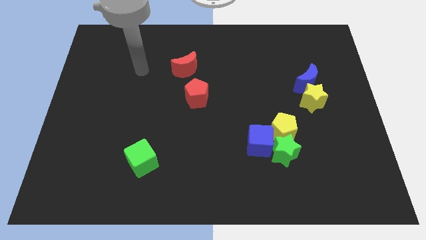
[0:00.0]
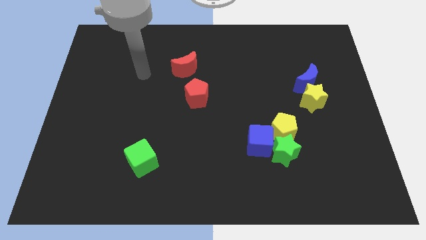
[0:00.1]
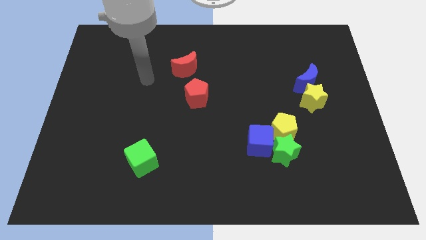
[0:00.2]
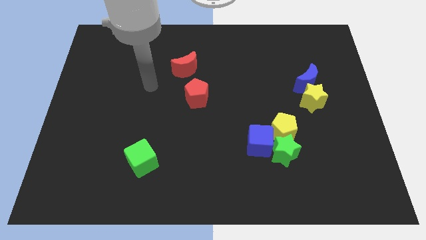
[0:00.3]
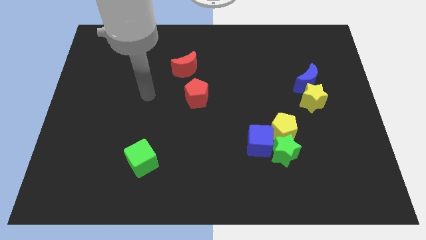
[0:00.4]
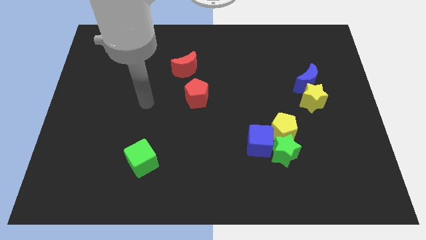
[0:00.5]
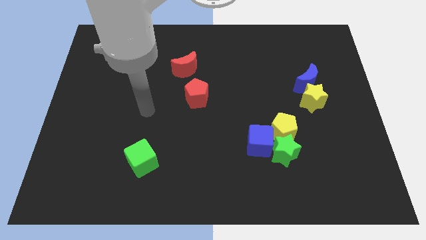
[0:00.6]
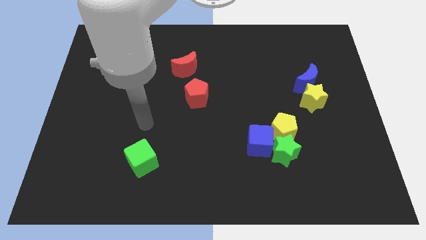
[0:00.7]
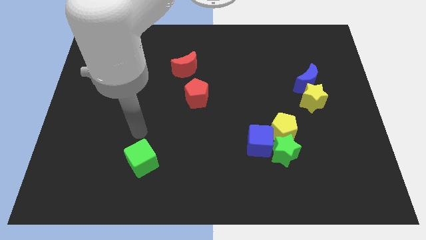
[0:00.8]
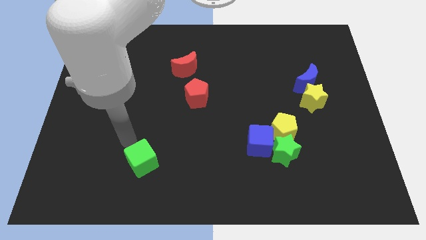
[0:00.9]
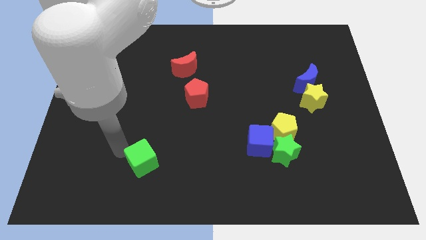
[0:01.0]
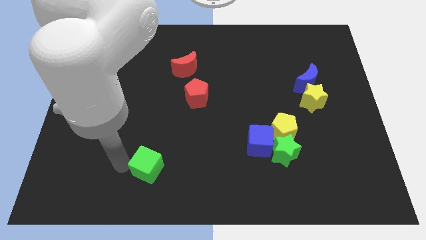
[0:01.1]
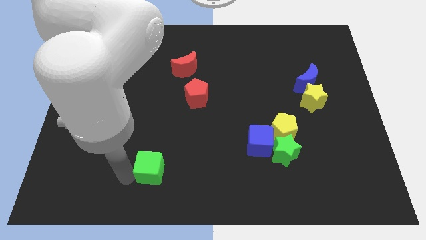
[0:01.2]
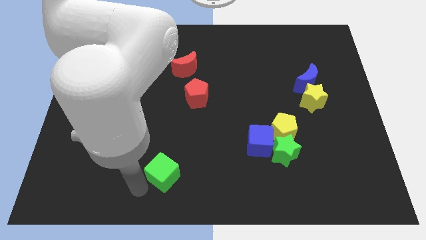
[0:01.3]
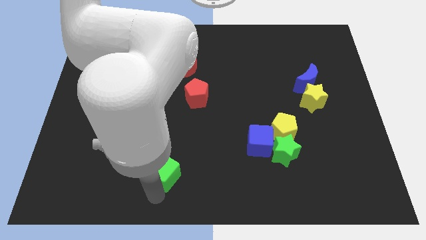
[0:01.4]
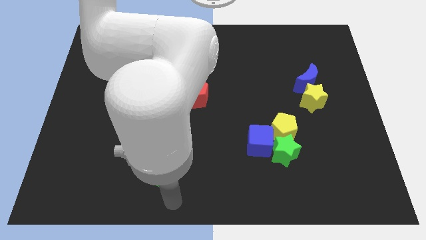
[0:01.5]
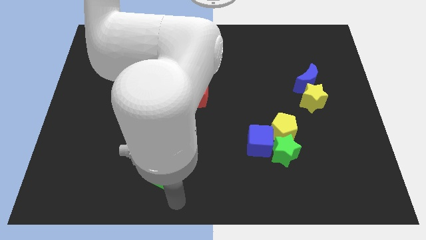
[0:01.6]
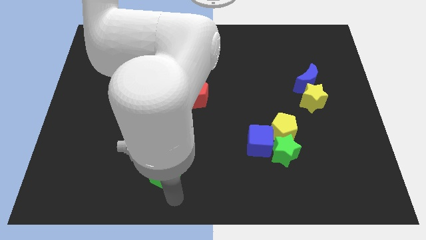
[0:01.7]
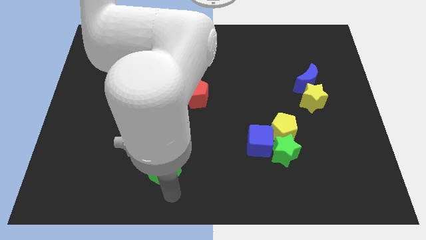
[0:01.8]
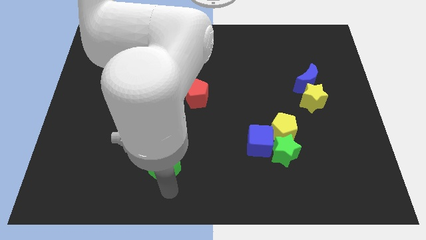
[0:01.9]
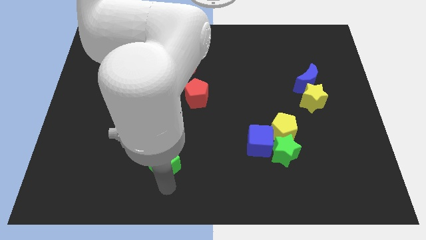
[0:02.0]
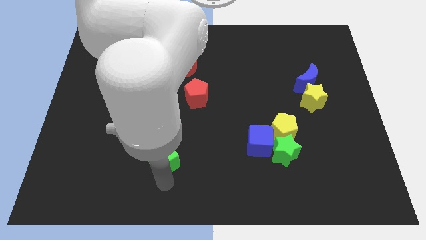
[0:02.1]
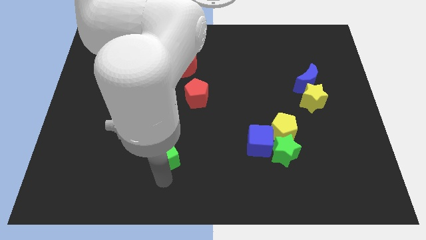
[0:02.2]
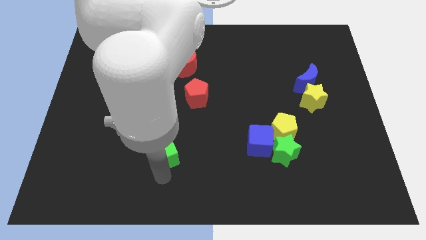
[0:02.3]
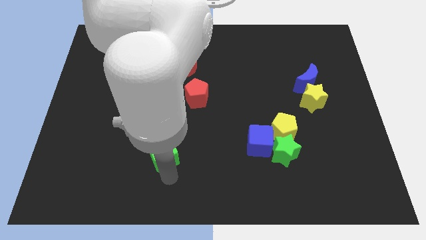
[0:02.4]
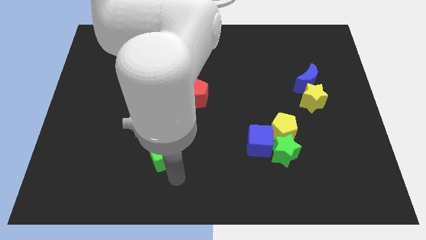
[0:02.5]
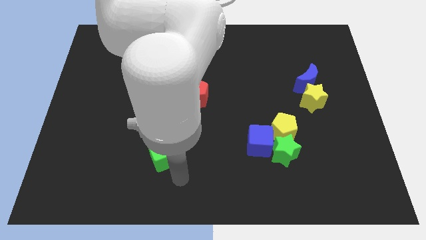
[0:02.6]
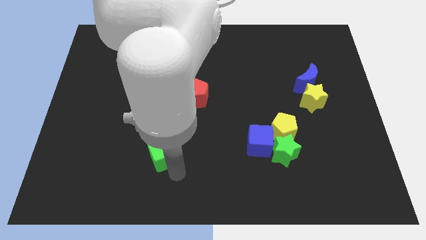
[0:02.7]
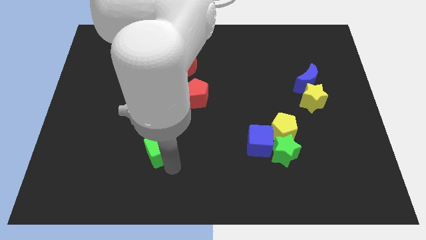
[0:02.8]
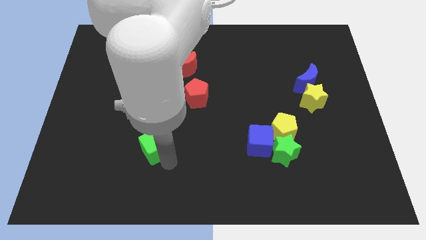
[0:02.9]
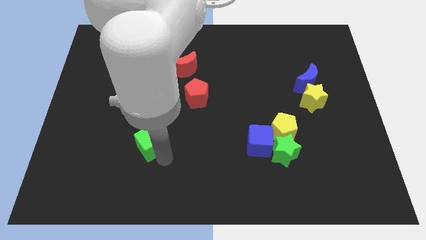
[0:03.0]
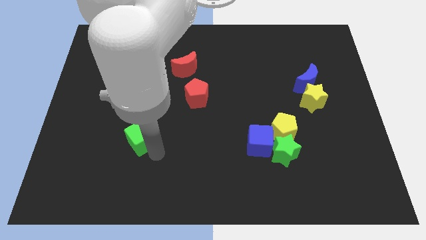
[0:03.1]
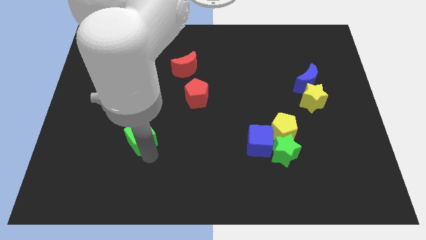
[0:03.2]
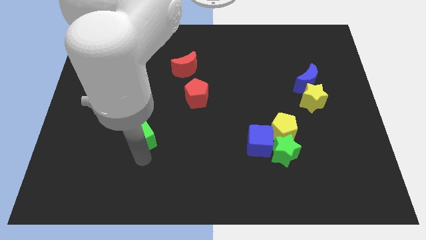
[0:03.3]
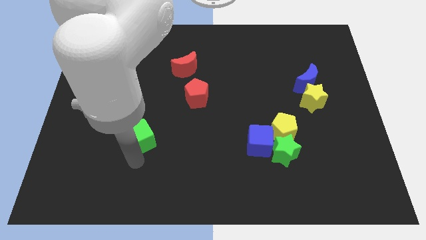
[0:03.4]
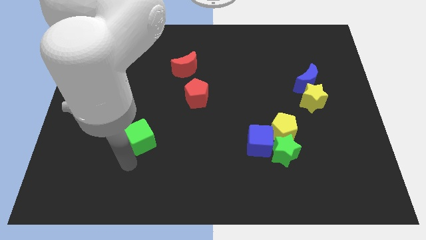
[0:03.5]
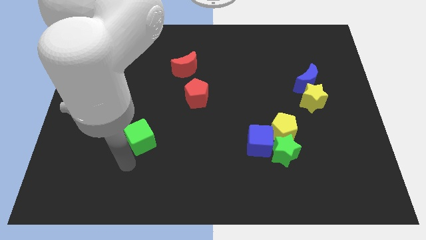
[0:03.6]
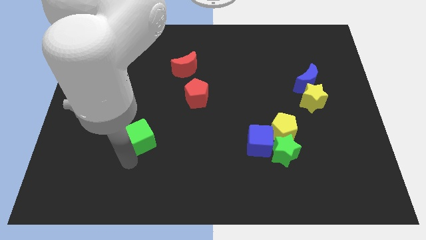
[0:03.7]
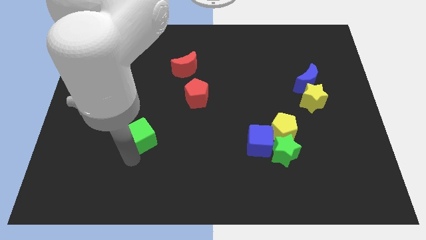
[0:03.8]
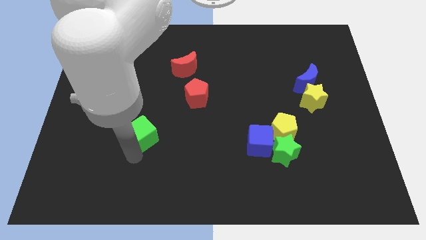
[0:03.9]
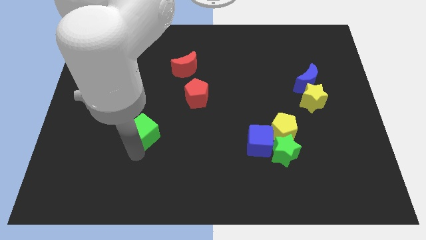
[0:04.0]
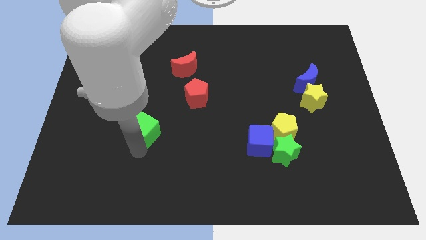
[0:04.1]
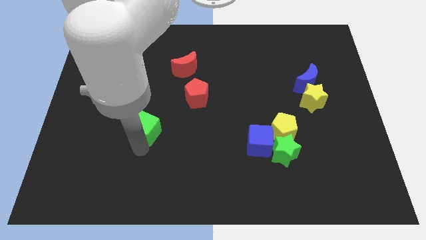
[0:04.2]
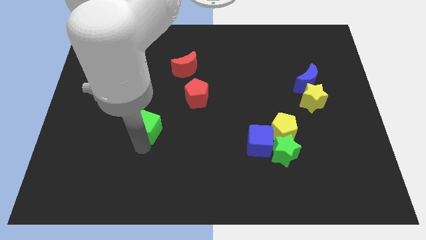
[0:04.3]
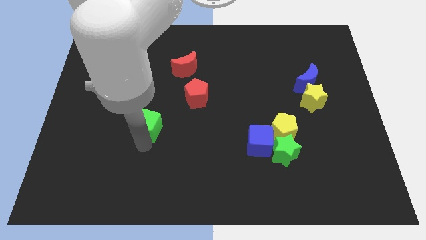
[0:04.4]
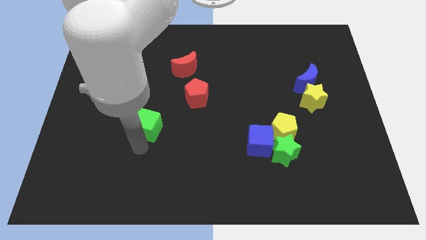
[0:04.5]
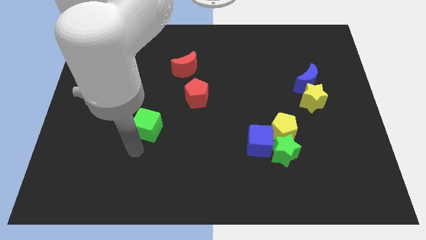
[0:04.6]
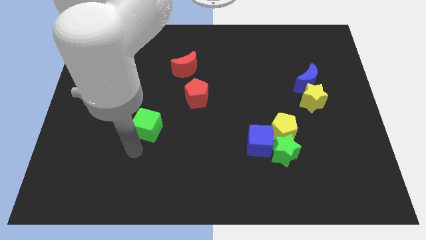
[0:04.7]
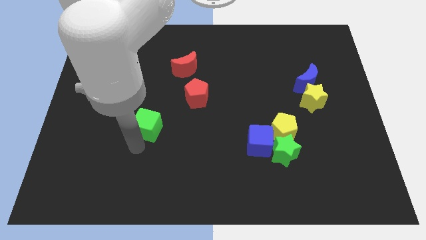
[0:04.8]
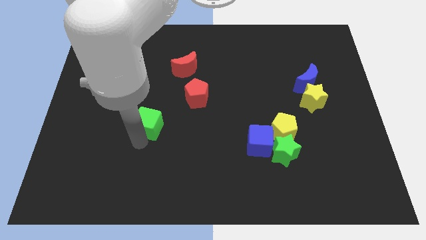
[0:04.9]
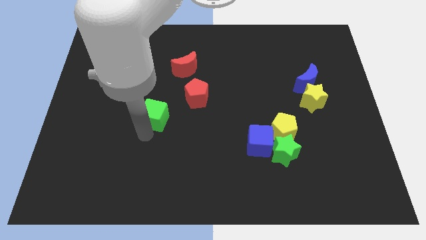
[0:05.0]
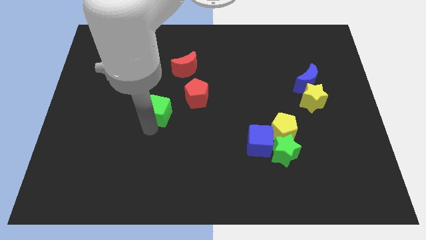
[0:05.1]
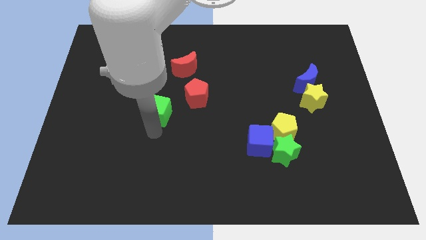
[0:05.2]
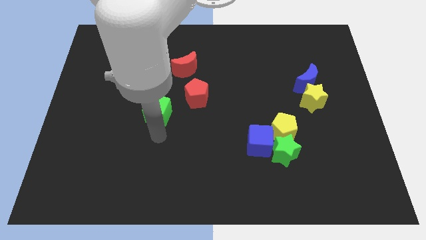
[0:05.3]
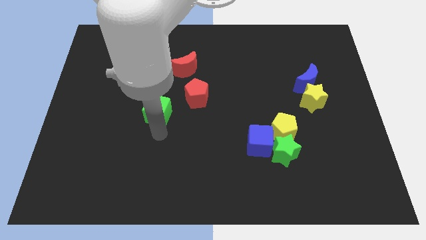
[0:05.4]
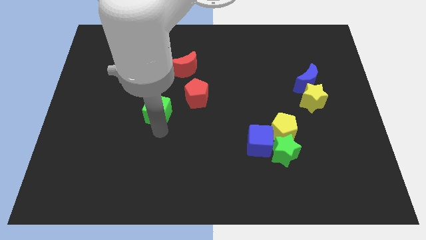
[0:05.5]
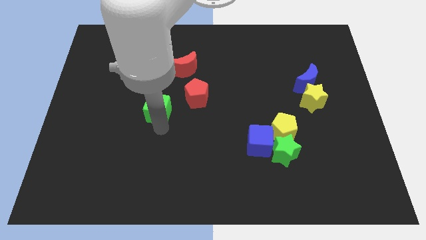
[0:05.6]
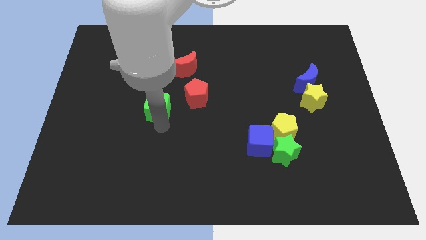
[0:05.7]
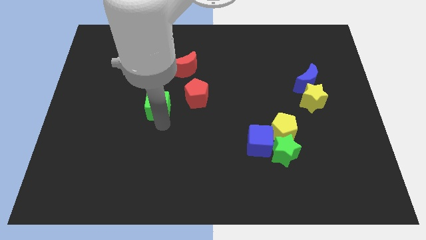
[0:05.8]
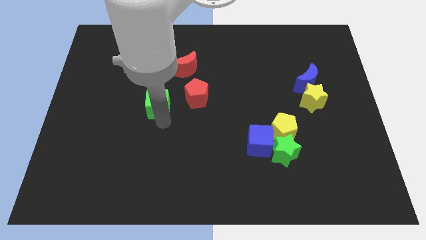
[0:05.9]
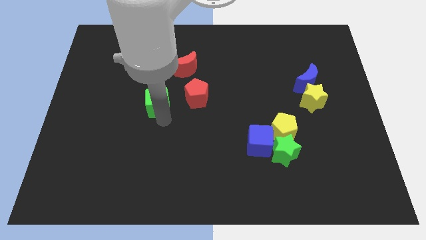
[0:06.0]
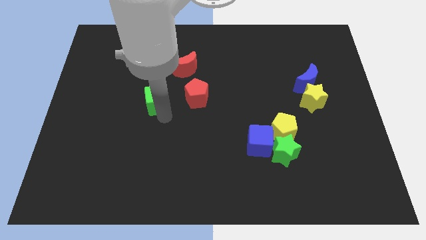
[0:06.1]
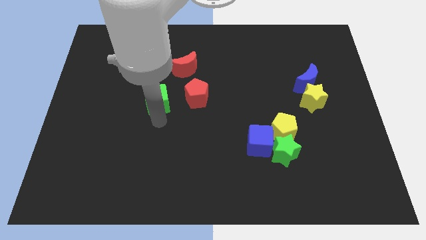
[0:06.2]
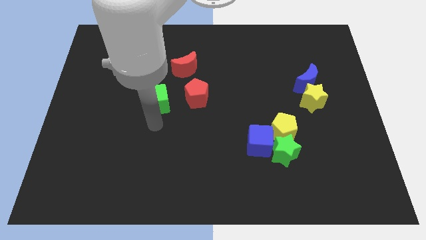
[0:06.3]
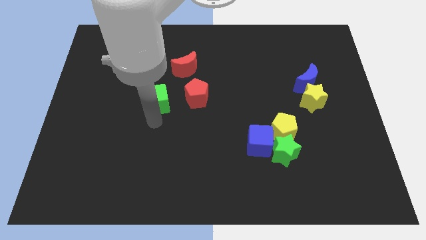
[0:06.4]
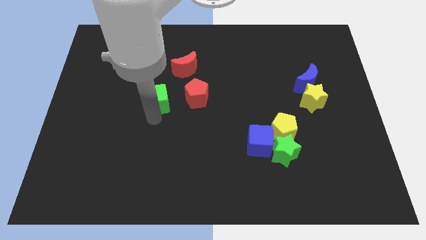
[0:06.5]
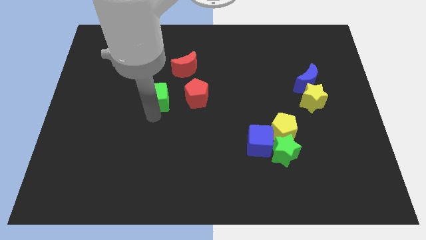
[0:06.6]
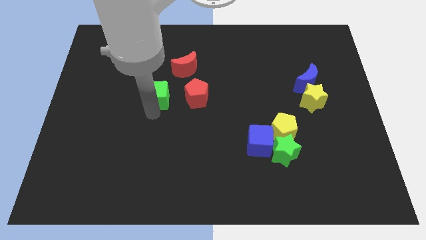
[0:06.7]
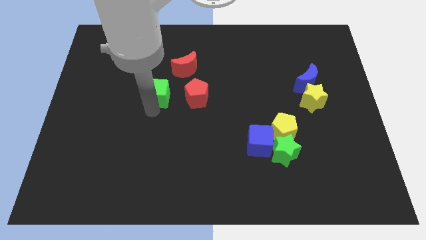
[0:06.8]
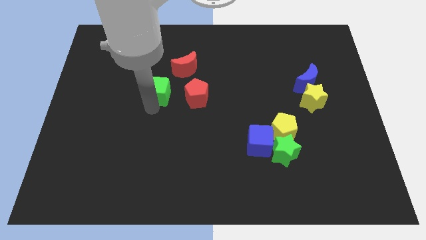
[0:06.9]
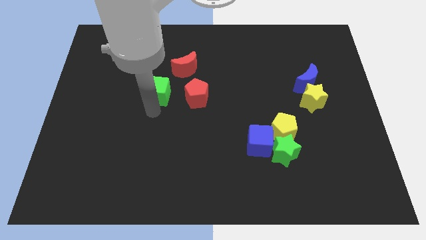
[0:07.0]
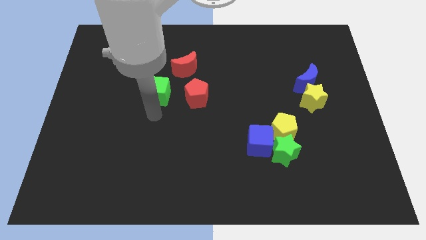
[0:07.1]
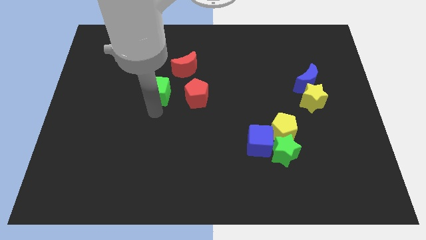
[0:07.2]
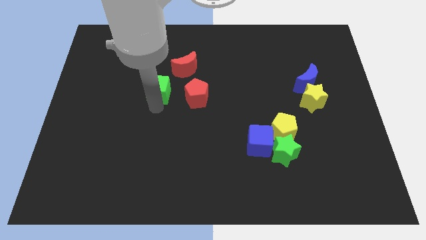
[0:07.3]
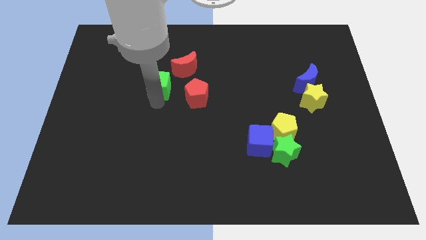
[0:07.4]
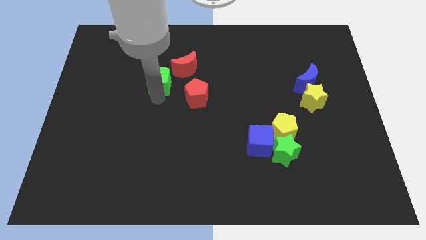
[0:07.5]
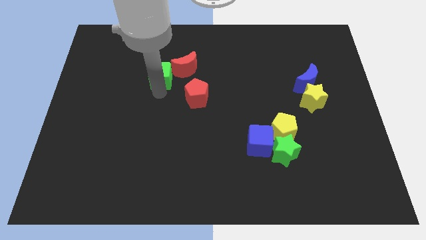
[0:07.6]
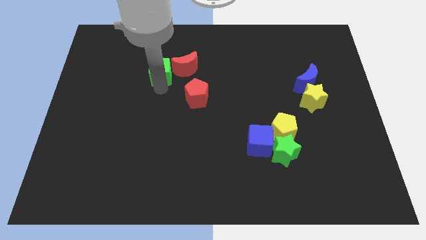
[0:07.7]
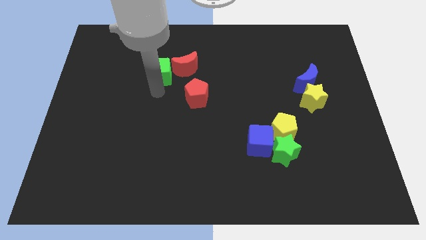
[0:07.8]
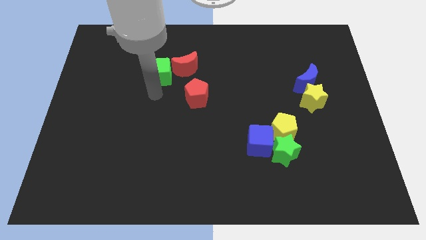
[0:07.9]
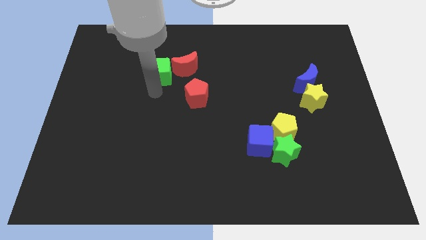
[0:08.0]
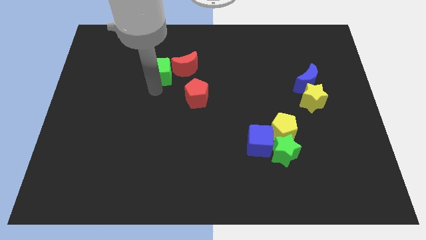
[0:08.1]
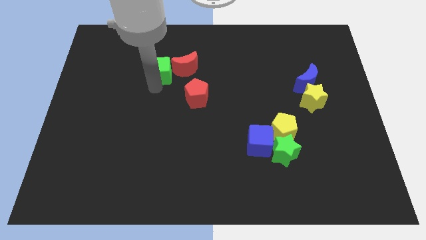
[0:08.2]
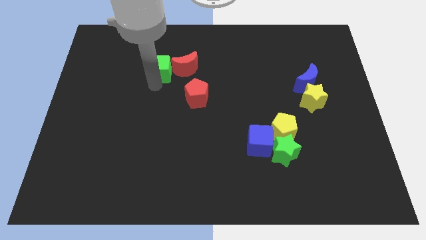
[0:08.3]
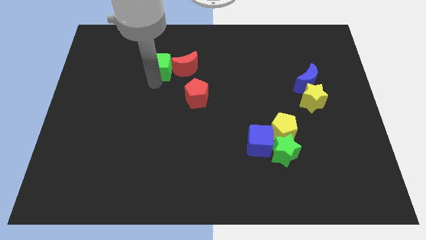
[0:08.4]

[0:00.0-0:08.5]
slide the green cube to the top left side of the red moon
